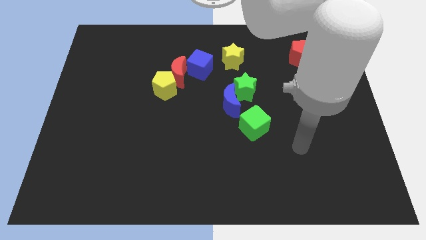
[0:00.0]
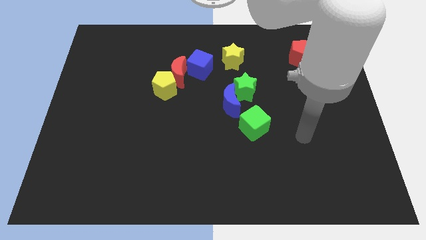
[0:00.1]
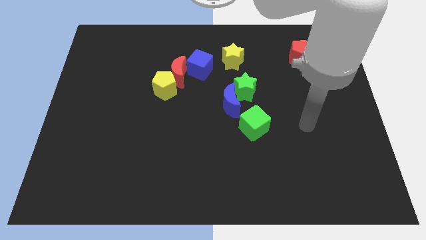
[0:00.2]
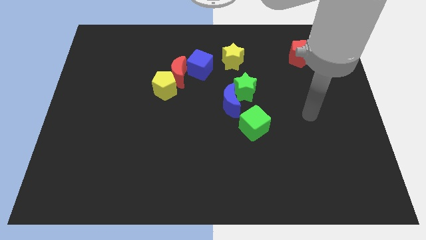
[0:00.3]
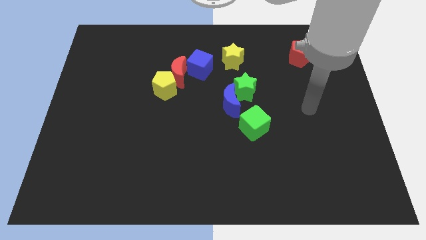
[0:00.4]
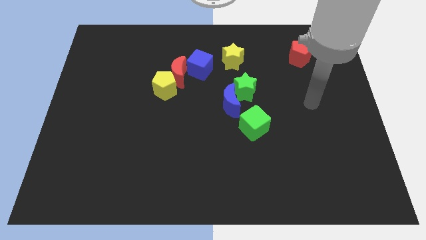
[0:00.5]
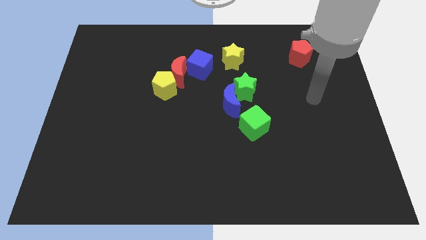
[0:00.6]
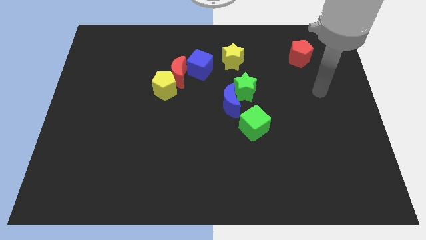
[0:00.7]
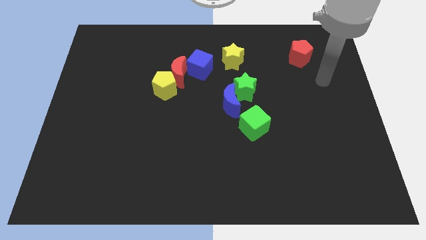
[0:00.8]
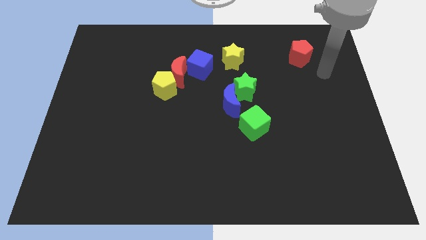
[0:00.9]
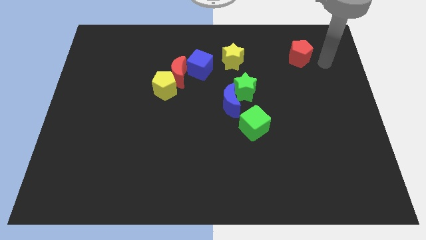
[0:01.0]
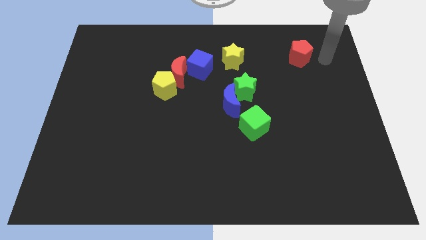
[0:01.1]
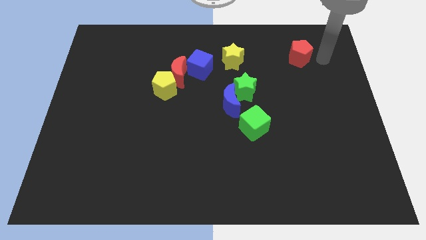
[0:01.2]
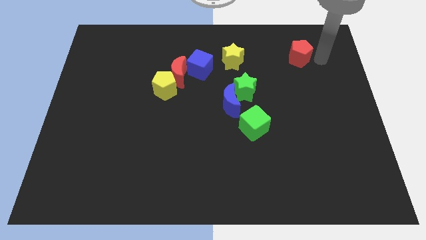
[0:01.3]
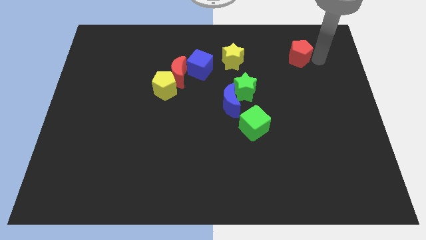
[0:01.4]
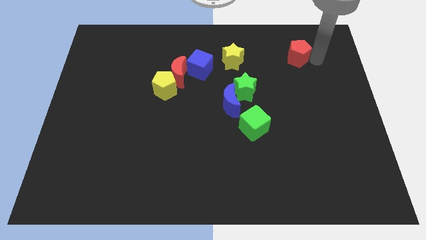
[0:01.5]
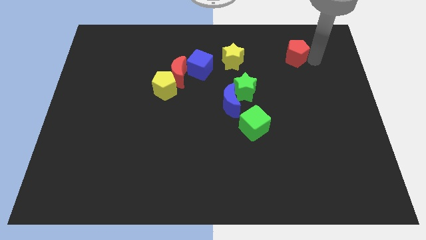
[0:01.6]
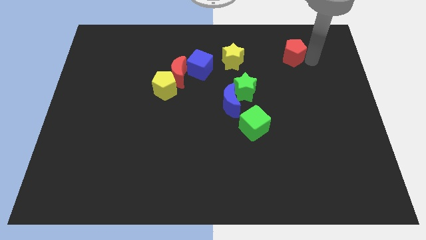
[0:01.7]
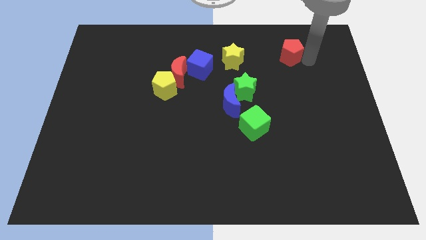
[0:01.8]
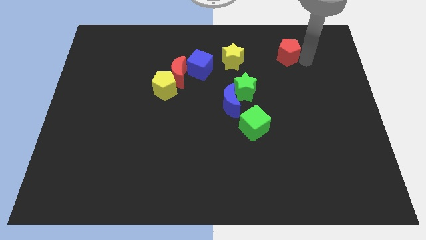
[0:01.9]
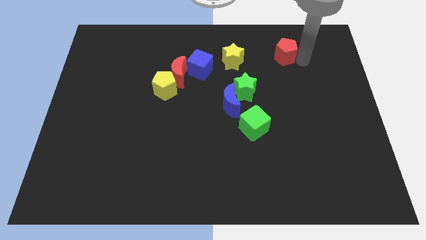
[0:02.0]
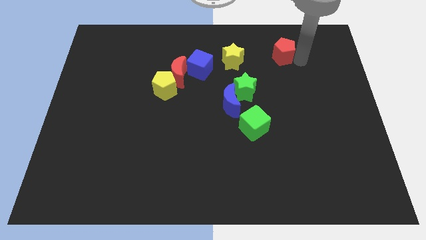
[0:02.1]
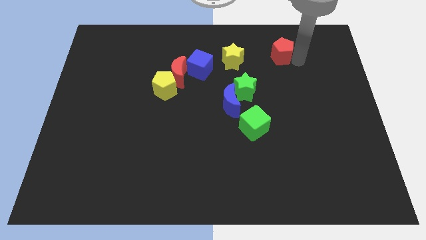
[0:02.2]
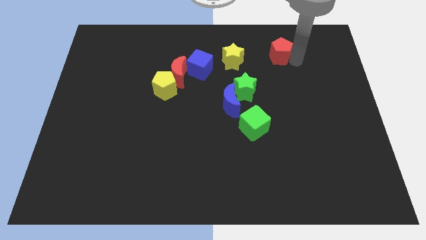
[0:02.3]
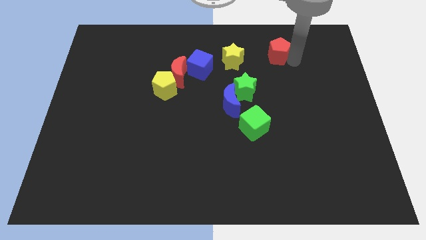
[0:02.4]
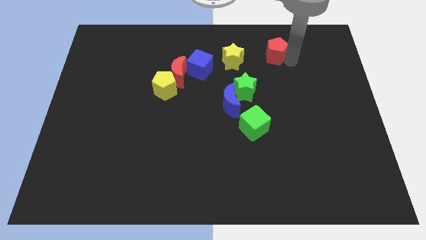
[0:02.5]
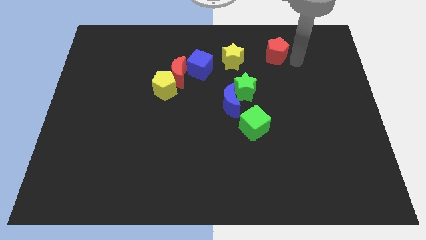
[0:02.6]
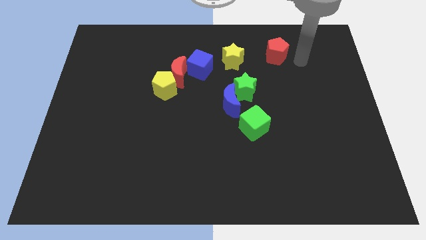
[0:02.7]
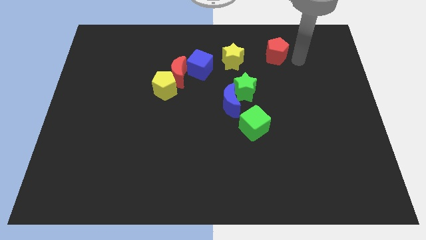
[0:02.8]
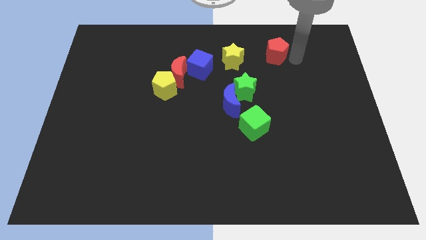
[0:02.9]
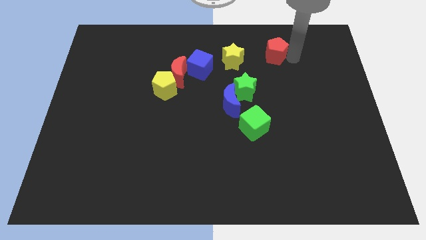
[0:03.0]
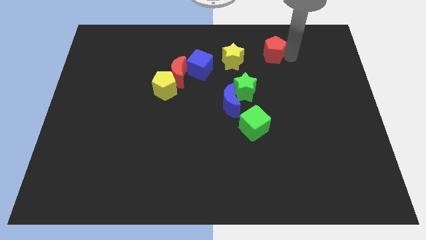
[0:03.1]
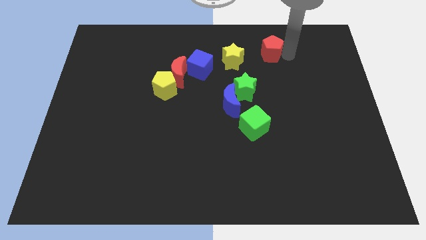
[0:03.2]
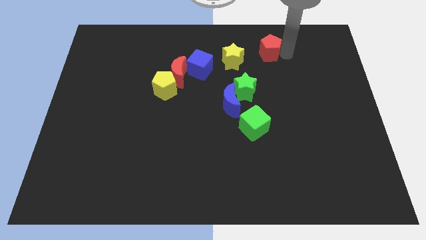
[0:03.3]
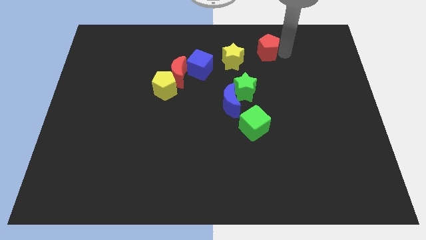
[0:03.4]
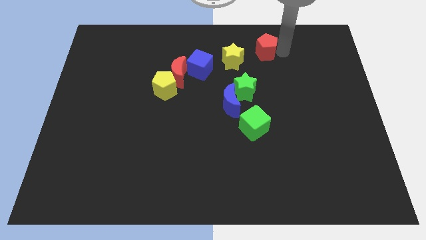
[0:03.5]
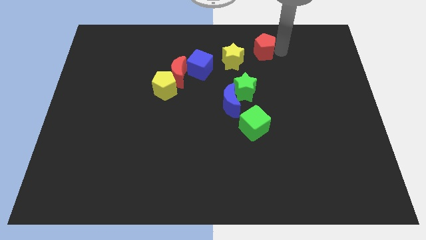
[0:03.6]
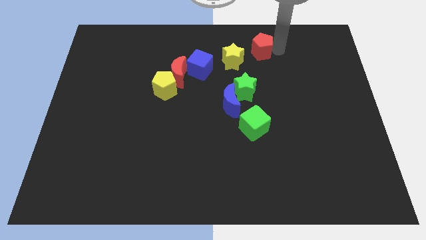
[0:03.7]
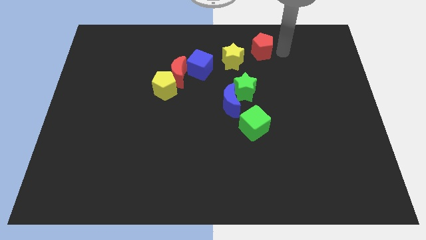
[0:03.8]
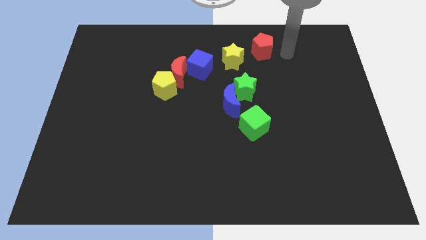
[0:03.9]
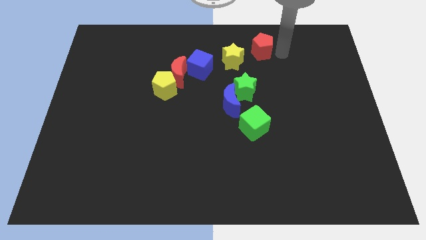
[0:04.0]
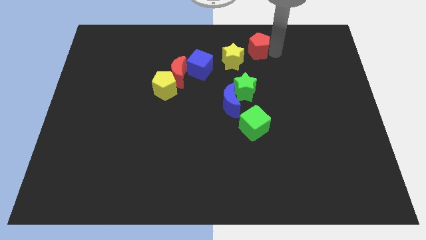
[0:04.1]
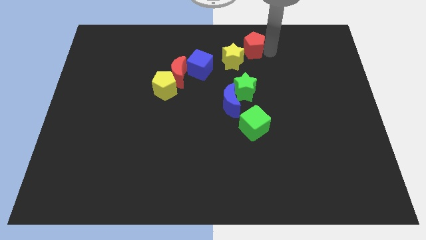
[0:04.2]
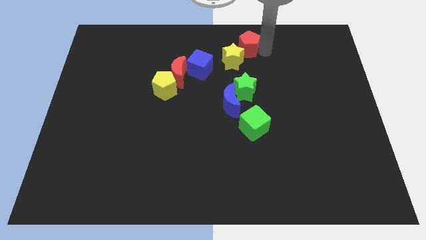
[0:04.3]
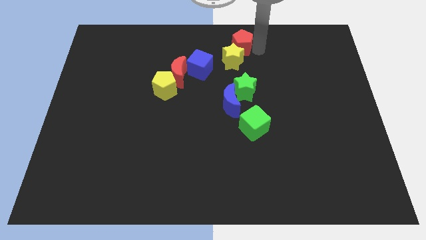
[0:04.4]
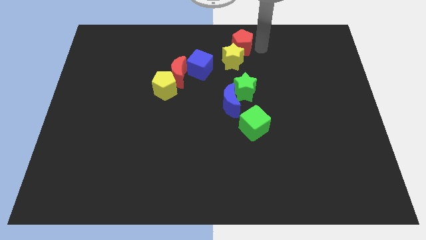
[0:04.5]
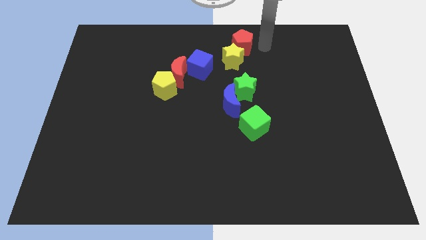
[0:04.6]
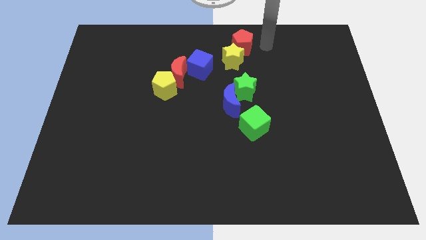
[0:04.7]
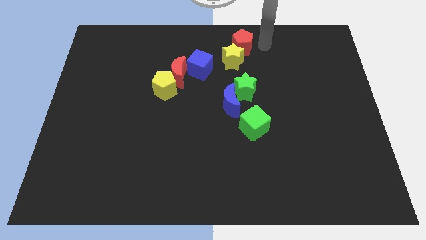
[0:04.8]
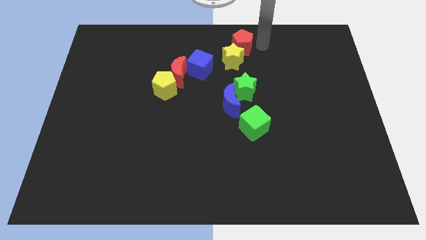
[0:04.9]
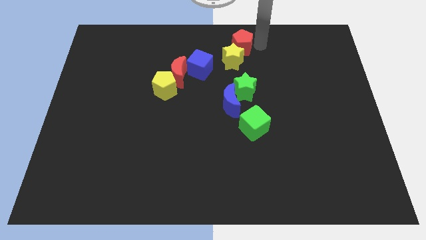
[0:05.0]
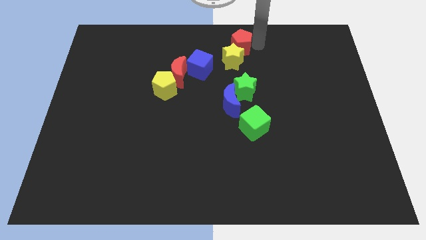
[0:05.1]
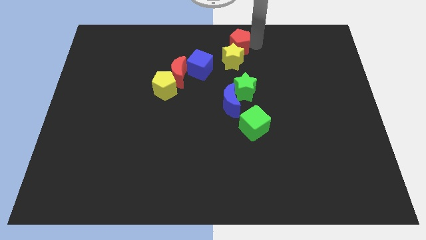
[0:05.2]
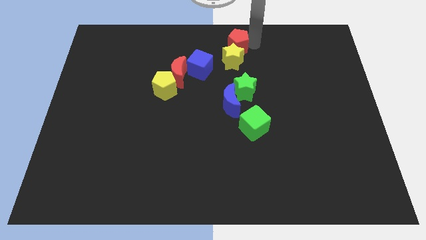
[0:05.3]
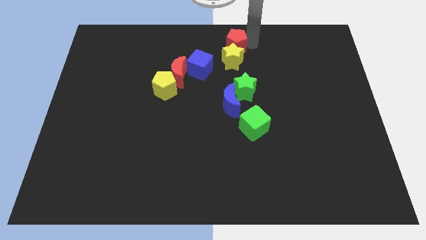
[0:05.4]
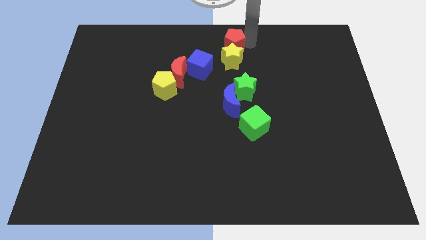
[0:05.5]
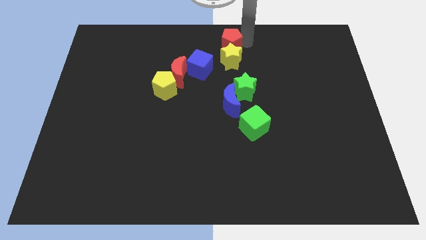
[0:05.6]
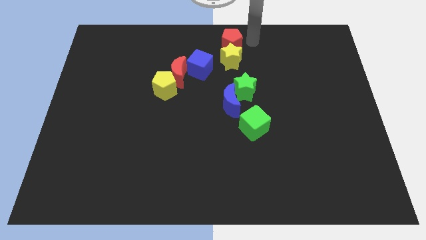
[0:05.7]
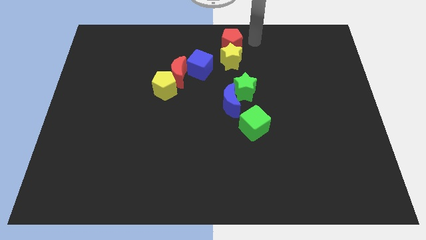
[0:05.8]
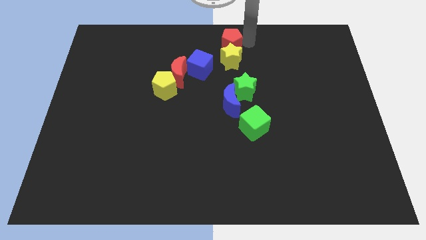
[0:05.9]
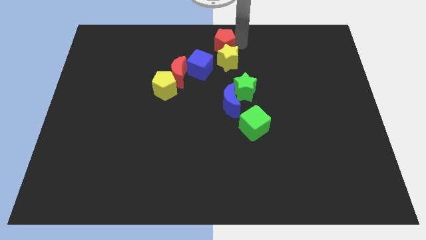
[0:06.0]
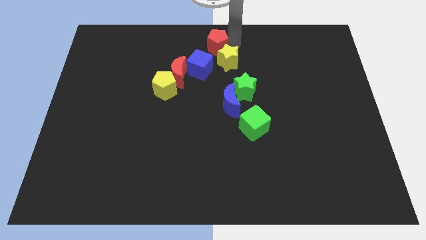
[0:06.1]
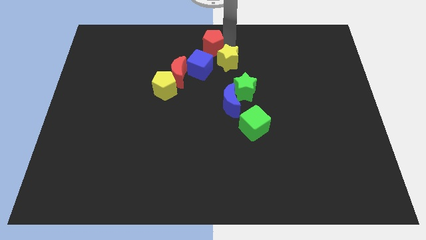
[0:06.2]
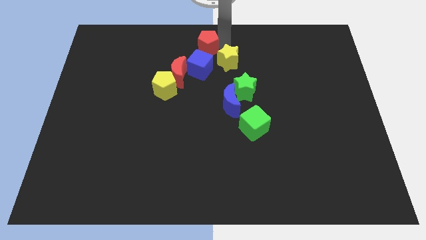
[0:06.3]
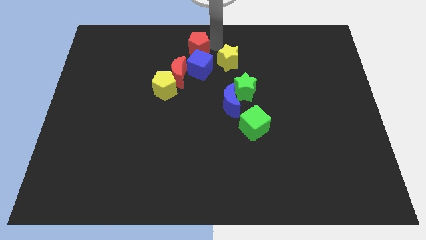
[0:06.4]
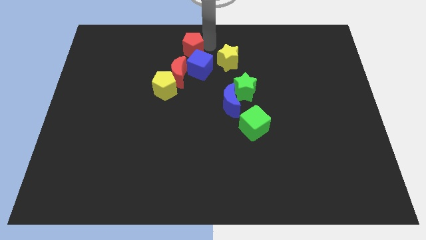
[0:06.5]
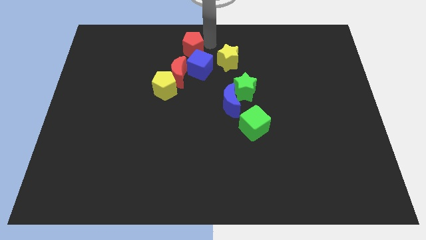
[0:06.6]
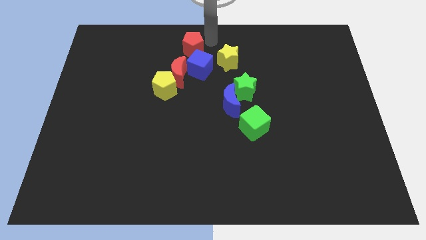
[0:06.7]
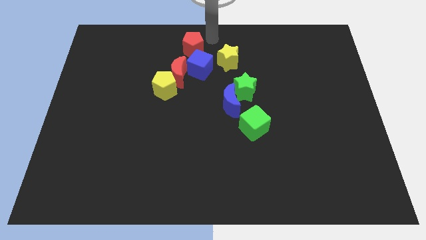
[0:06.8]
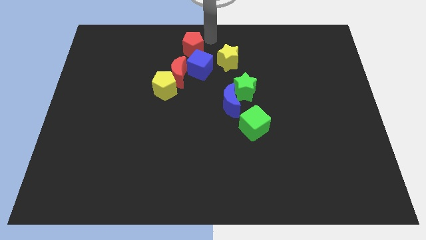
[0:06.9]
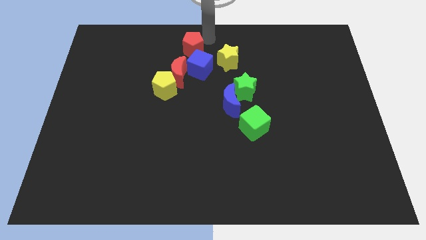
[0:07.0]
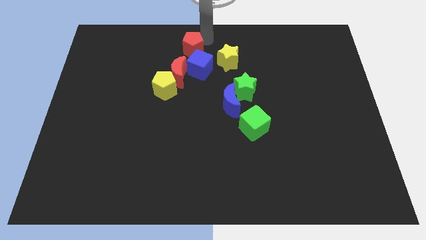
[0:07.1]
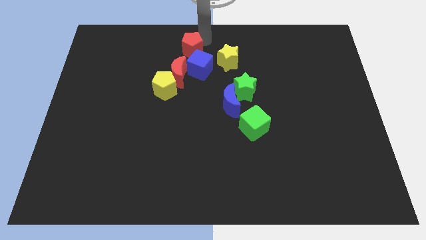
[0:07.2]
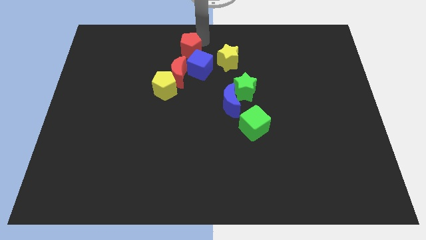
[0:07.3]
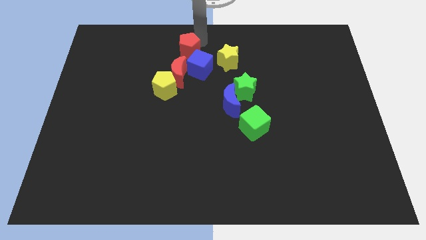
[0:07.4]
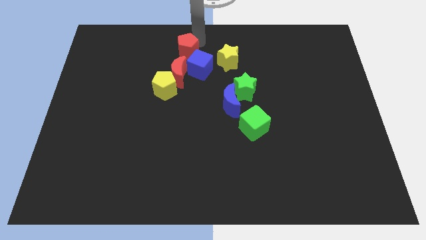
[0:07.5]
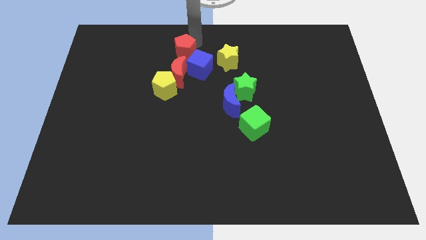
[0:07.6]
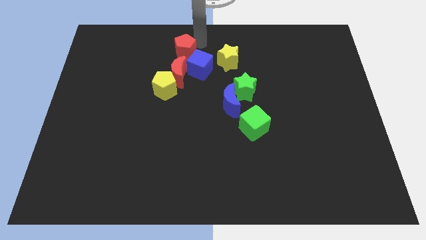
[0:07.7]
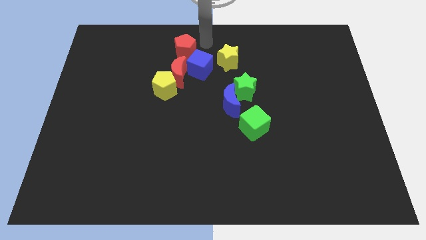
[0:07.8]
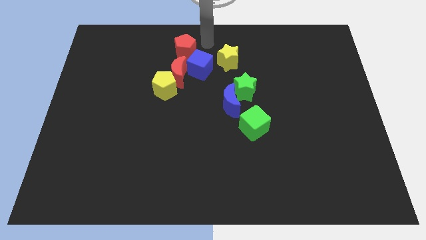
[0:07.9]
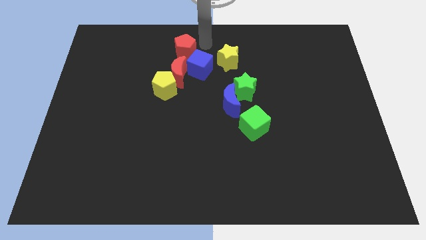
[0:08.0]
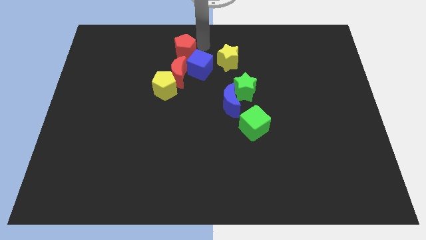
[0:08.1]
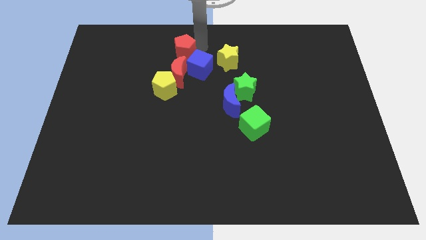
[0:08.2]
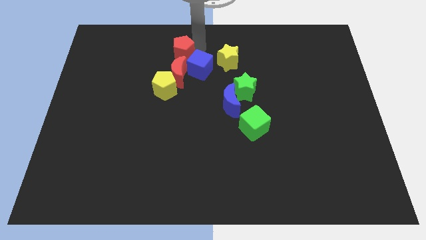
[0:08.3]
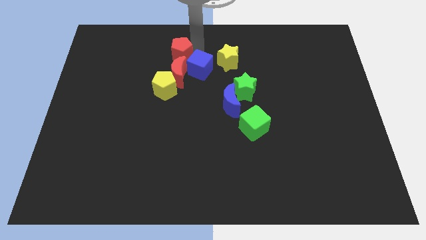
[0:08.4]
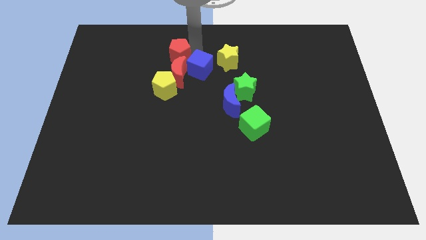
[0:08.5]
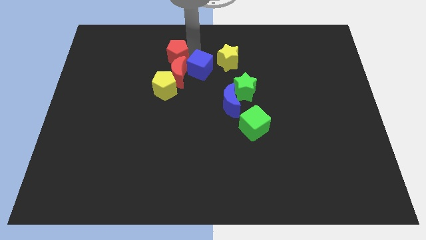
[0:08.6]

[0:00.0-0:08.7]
push the red pentagon to the top left side of the red moon
